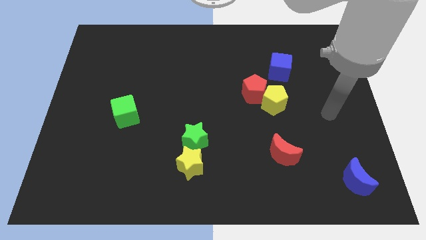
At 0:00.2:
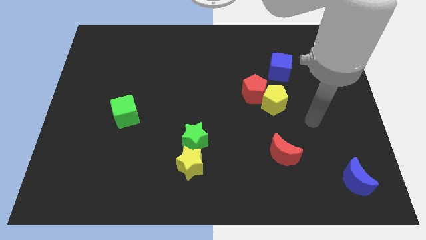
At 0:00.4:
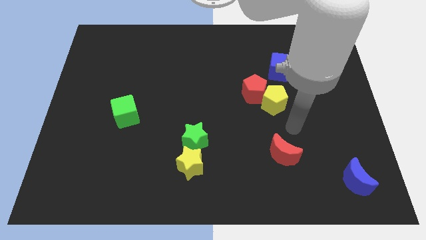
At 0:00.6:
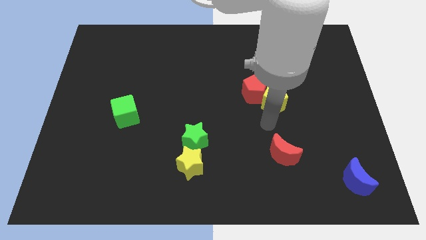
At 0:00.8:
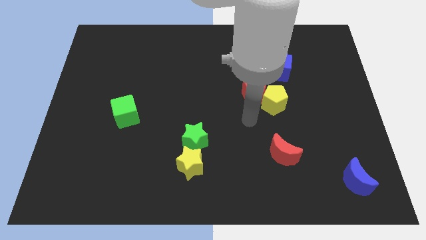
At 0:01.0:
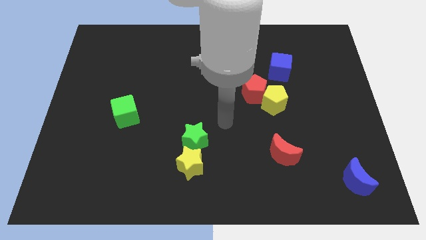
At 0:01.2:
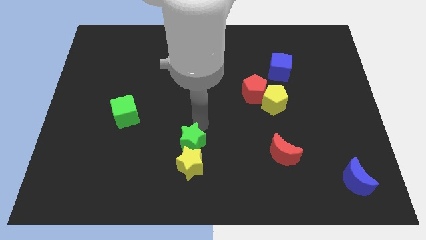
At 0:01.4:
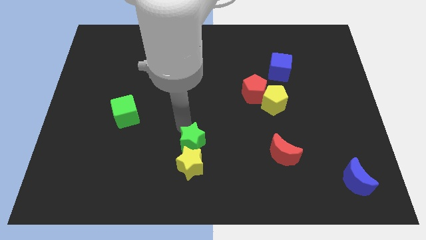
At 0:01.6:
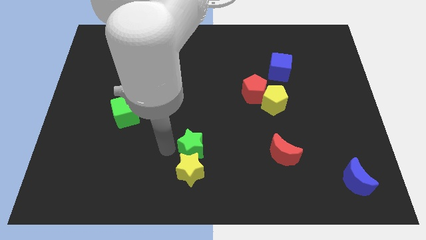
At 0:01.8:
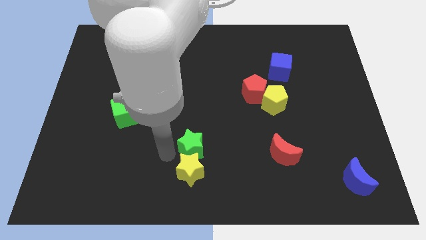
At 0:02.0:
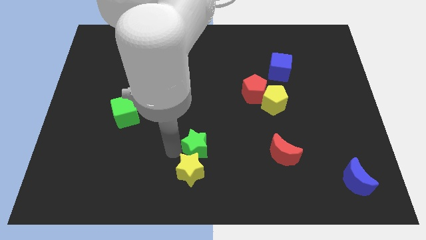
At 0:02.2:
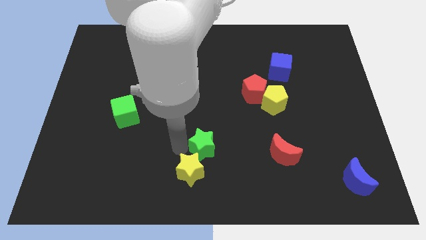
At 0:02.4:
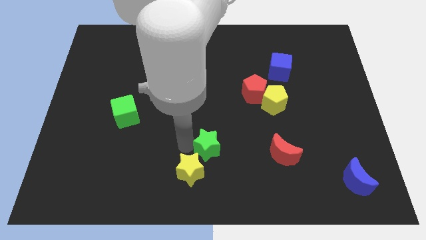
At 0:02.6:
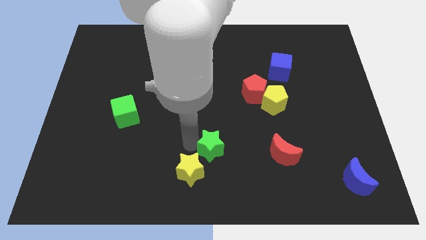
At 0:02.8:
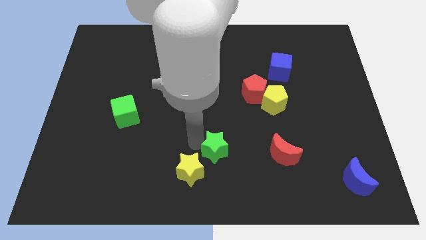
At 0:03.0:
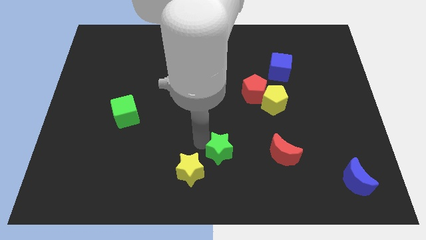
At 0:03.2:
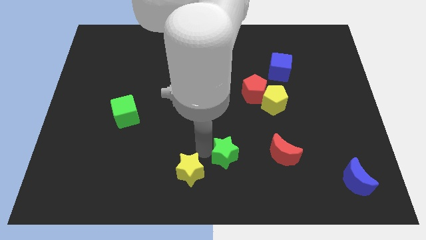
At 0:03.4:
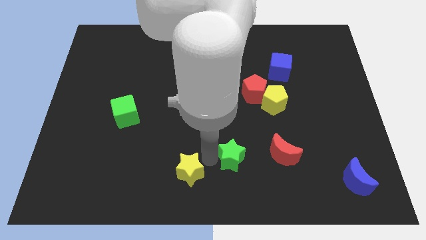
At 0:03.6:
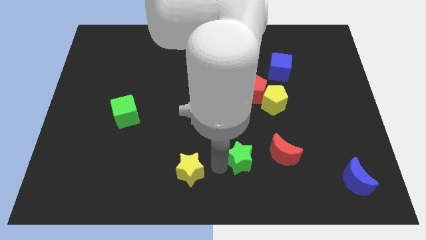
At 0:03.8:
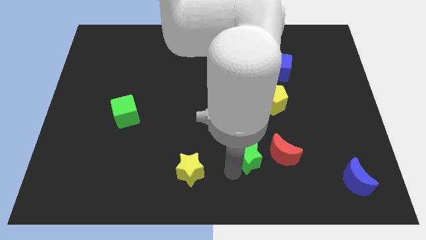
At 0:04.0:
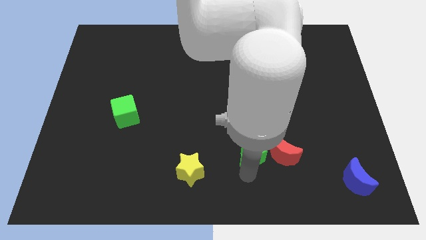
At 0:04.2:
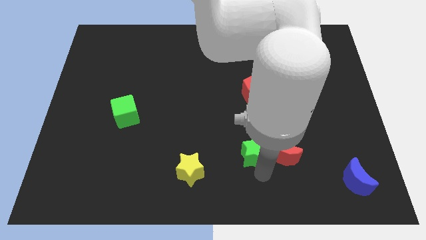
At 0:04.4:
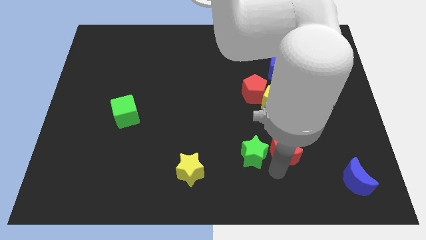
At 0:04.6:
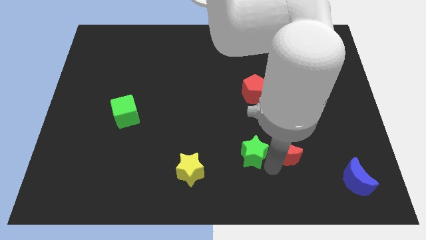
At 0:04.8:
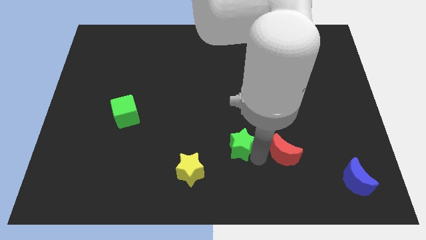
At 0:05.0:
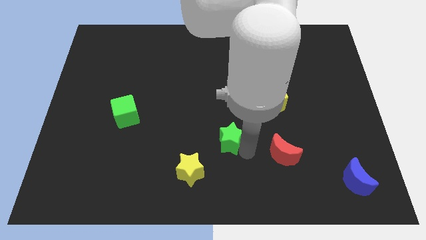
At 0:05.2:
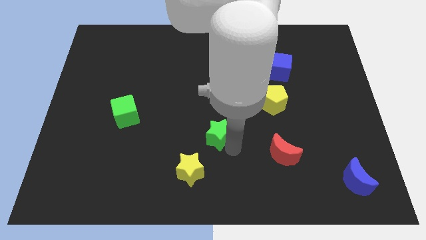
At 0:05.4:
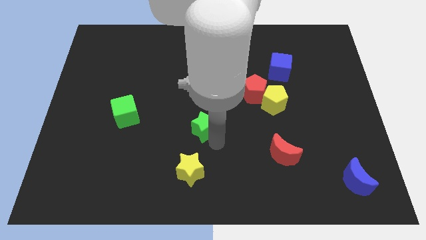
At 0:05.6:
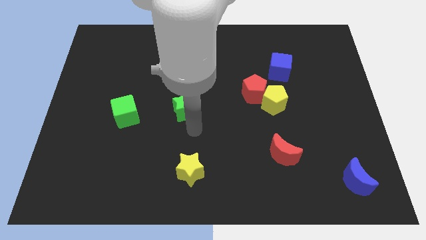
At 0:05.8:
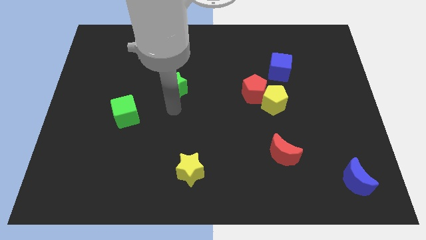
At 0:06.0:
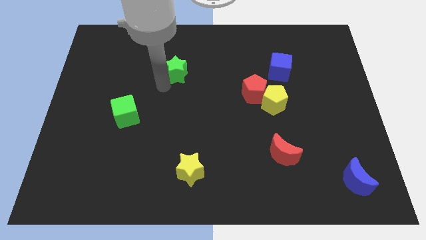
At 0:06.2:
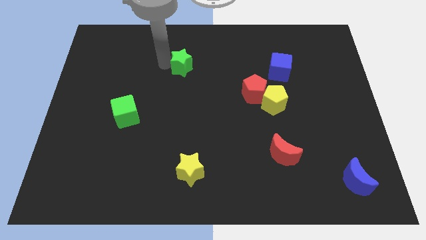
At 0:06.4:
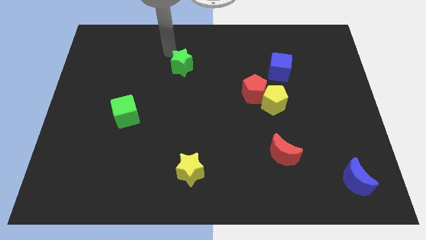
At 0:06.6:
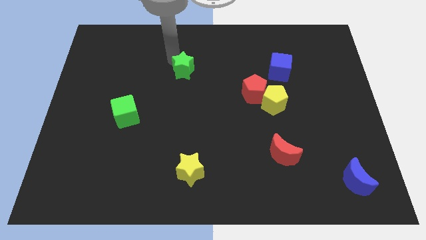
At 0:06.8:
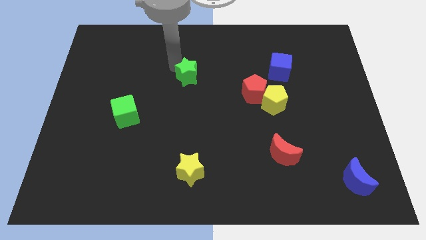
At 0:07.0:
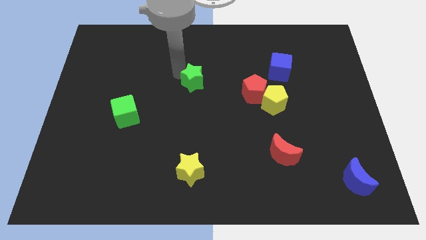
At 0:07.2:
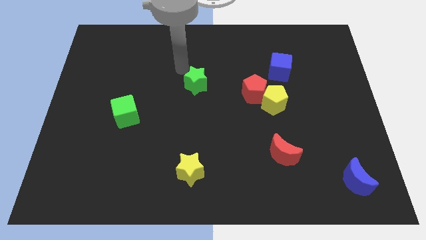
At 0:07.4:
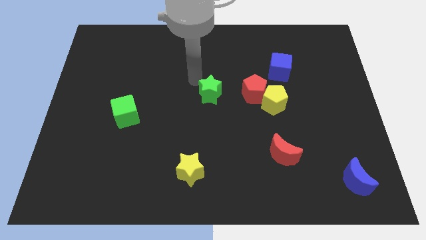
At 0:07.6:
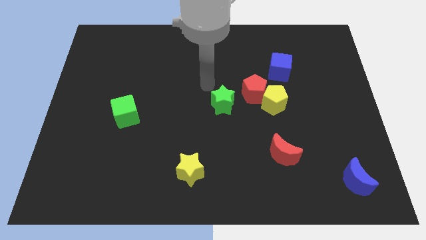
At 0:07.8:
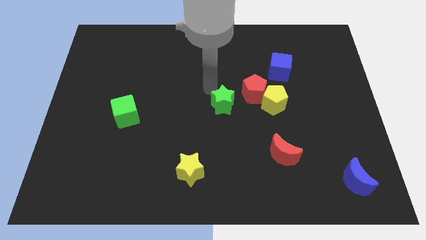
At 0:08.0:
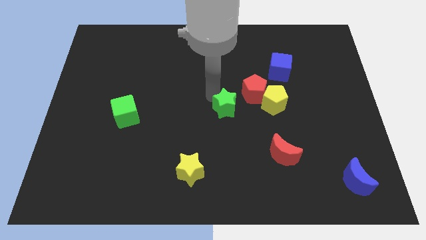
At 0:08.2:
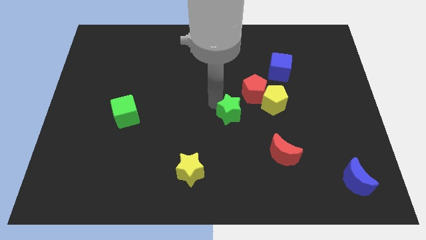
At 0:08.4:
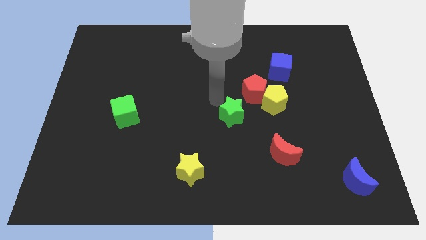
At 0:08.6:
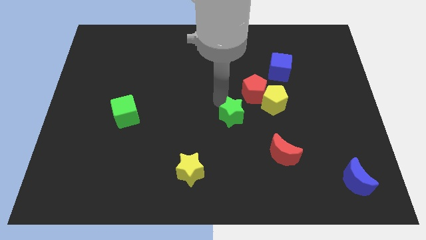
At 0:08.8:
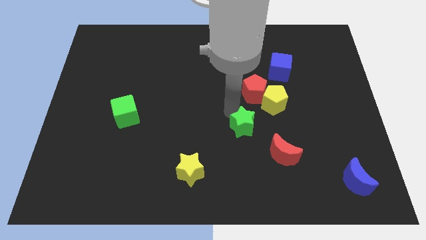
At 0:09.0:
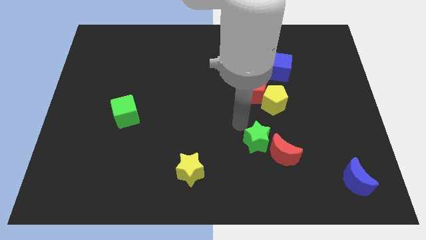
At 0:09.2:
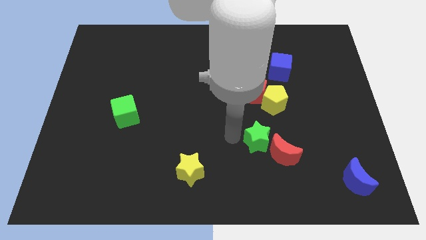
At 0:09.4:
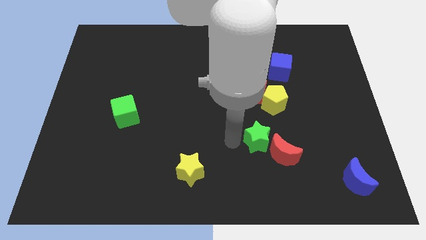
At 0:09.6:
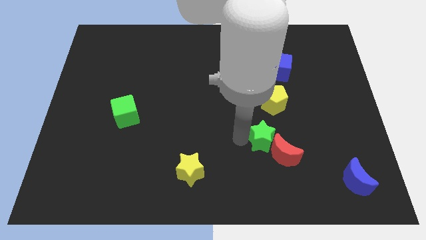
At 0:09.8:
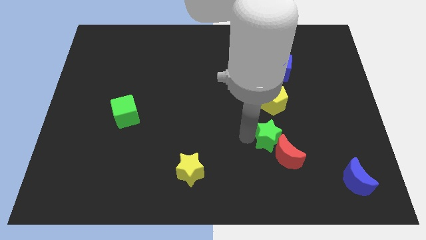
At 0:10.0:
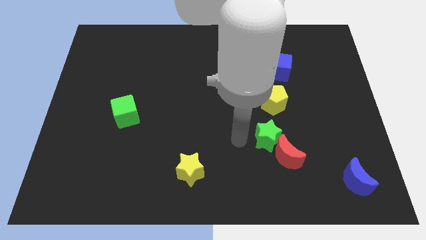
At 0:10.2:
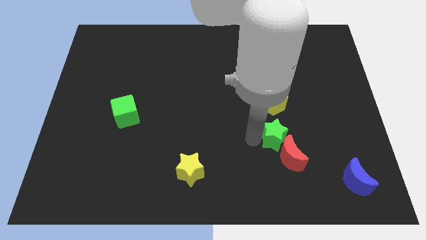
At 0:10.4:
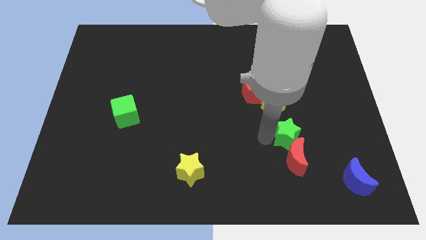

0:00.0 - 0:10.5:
push the green star to the right

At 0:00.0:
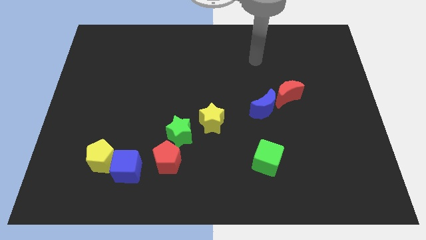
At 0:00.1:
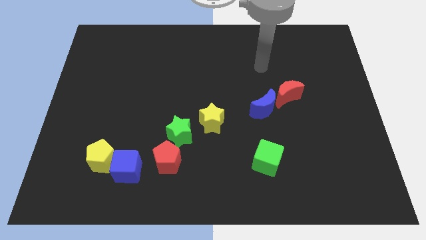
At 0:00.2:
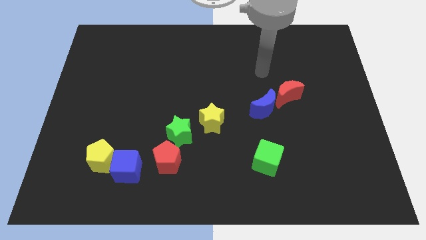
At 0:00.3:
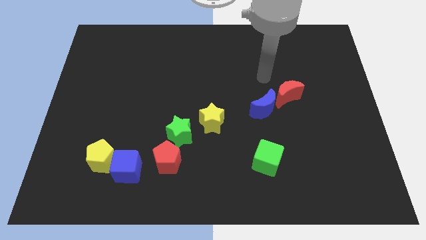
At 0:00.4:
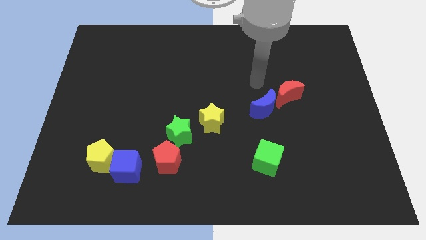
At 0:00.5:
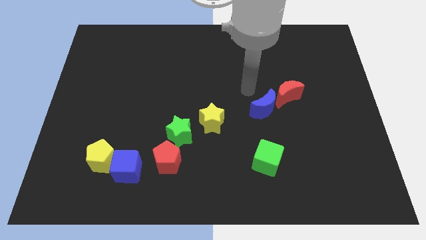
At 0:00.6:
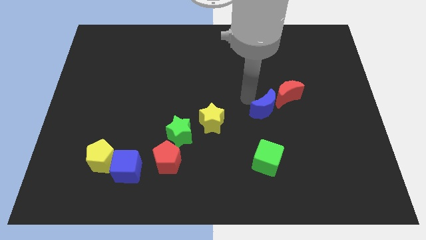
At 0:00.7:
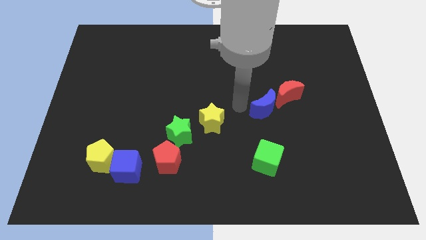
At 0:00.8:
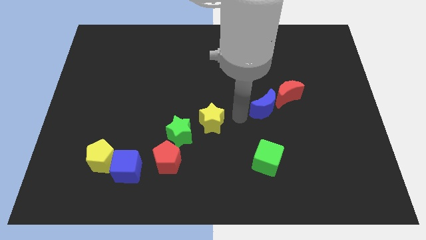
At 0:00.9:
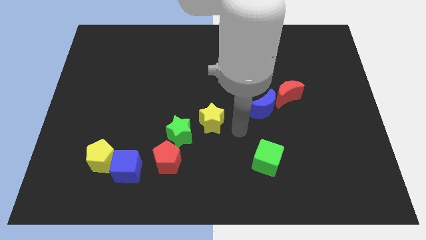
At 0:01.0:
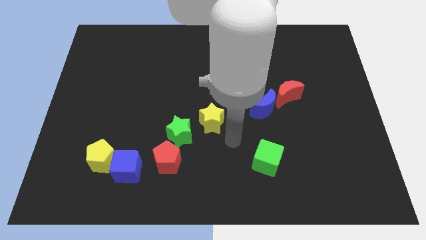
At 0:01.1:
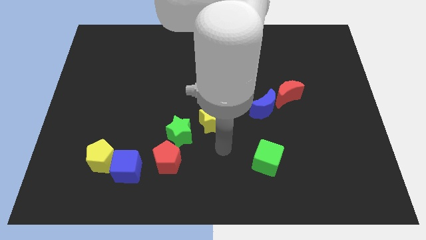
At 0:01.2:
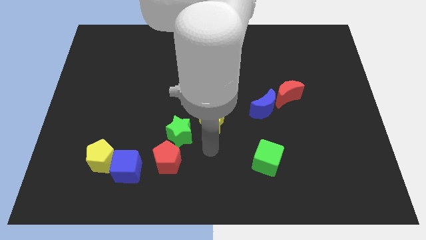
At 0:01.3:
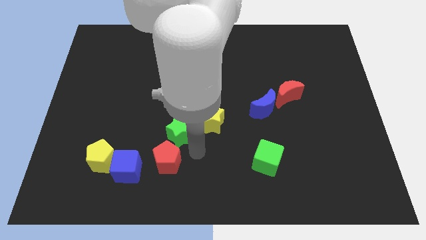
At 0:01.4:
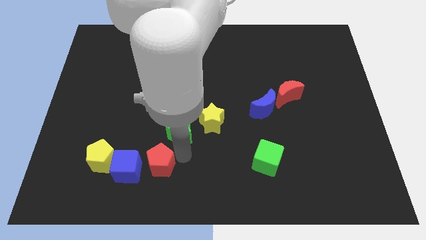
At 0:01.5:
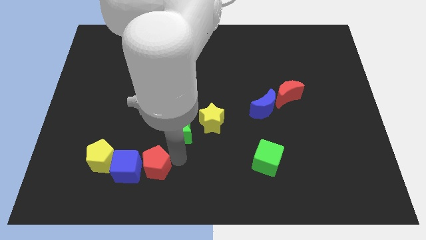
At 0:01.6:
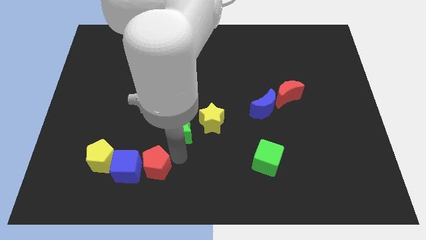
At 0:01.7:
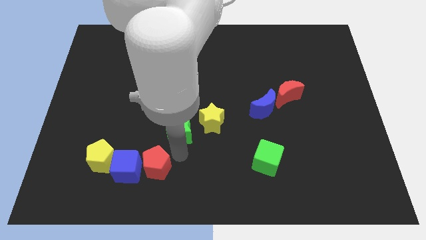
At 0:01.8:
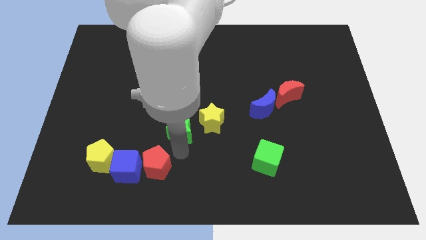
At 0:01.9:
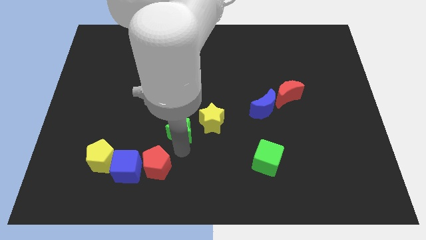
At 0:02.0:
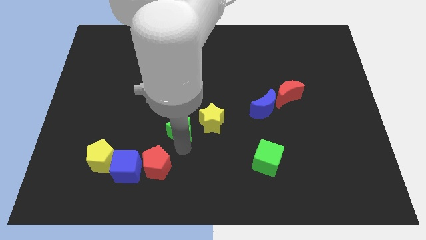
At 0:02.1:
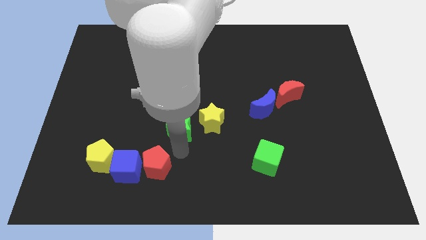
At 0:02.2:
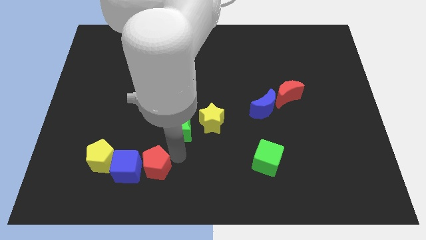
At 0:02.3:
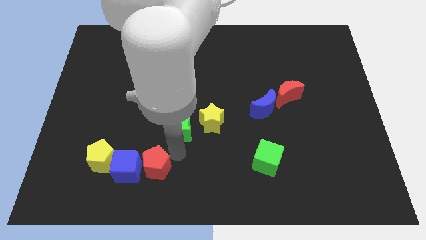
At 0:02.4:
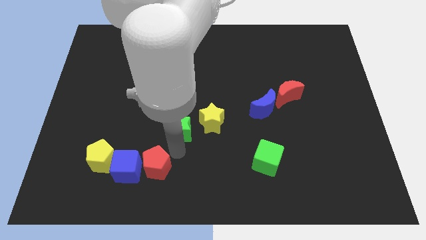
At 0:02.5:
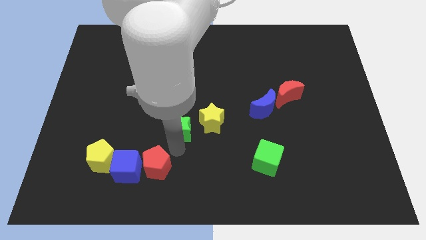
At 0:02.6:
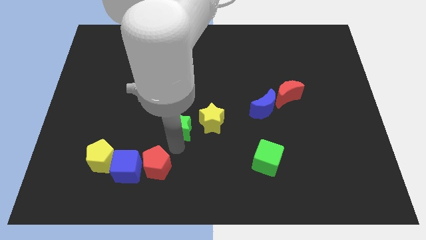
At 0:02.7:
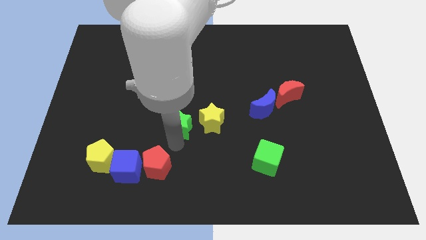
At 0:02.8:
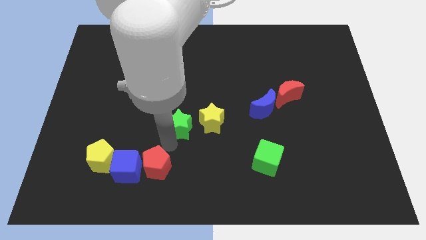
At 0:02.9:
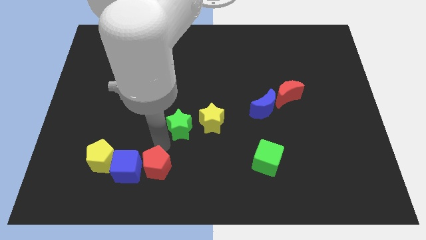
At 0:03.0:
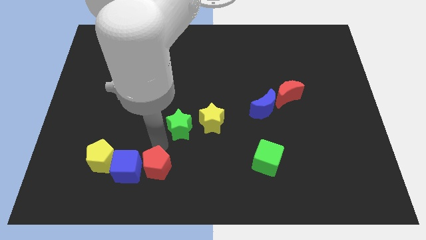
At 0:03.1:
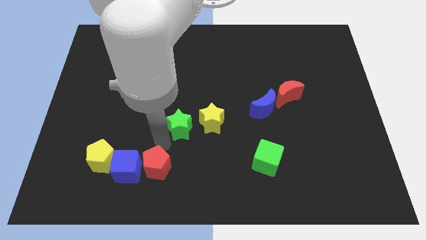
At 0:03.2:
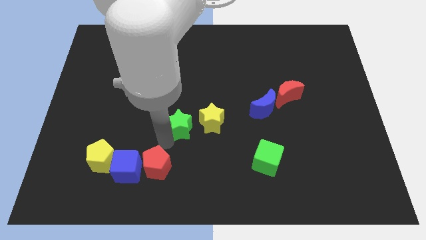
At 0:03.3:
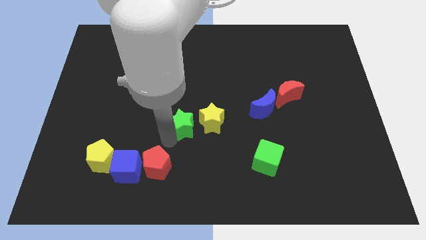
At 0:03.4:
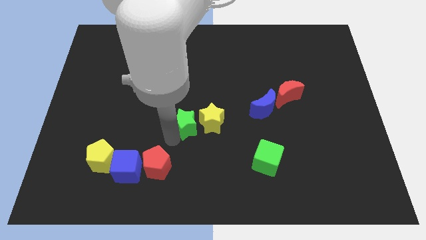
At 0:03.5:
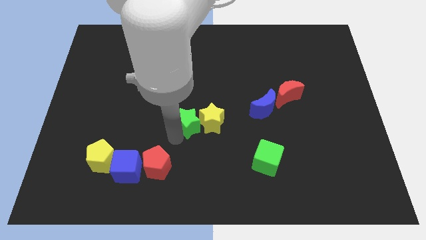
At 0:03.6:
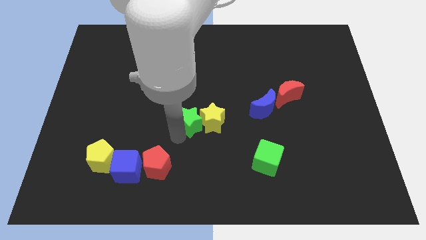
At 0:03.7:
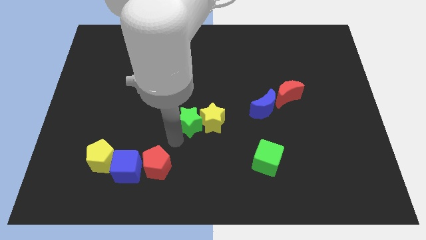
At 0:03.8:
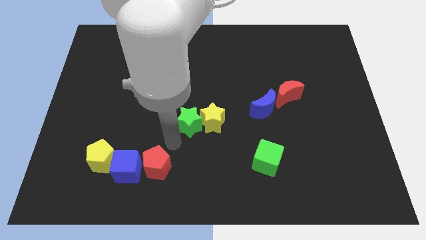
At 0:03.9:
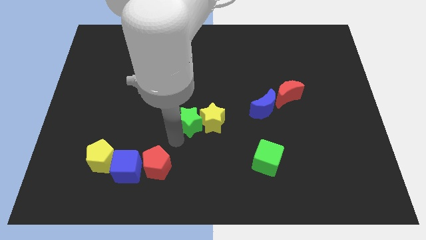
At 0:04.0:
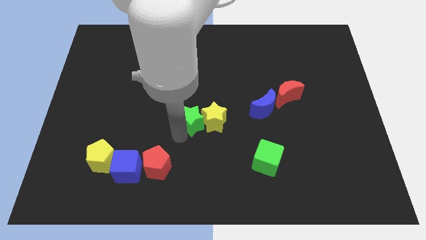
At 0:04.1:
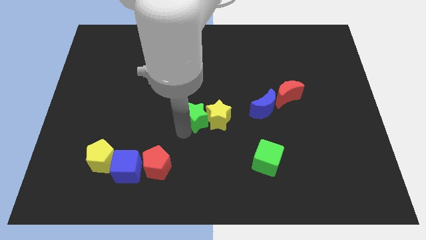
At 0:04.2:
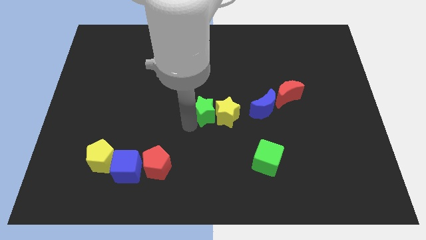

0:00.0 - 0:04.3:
slightly move the green star up and right diagonally
